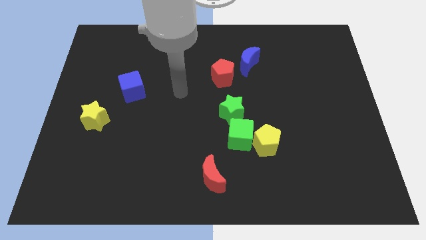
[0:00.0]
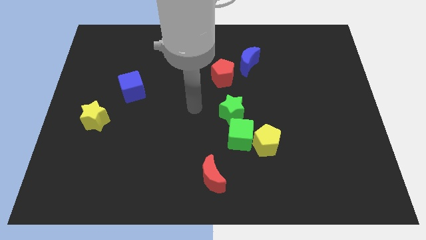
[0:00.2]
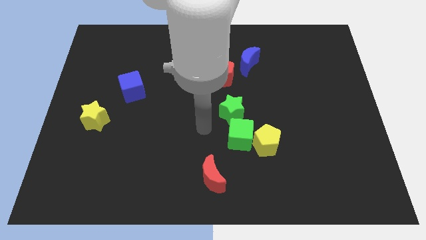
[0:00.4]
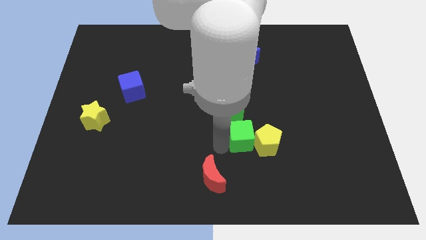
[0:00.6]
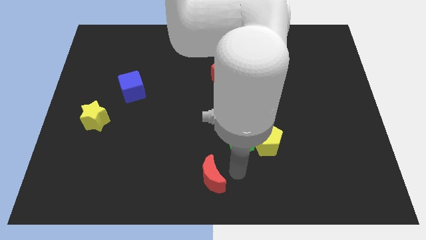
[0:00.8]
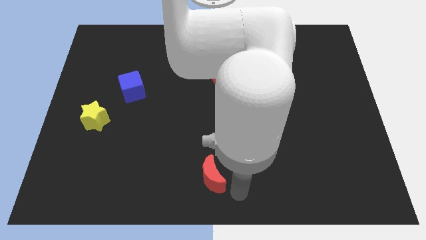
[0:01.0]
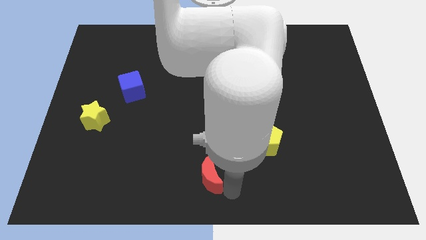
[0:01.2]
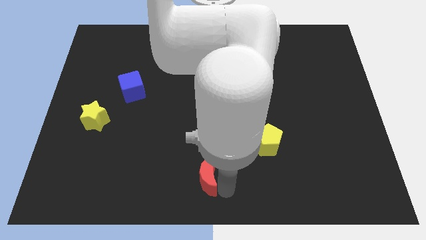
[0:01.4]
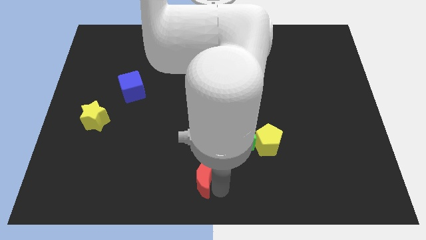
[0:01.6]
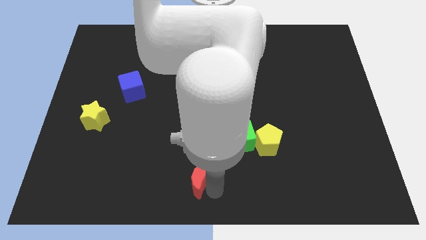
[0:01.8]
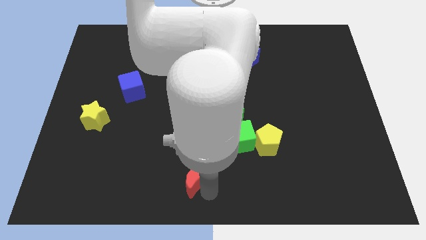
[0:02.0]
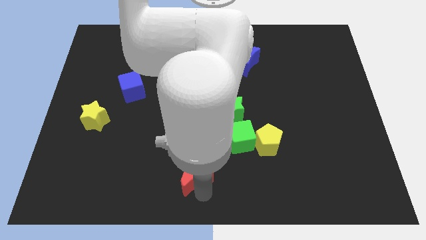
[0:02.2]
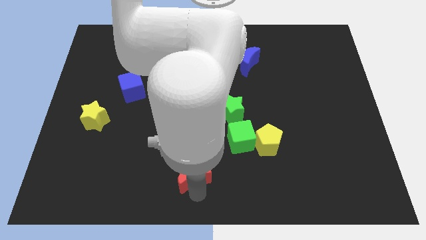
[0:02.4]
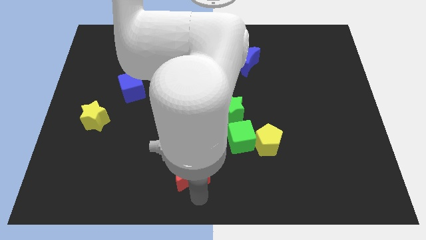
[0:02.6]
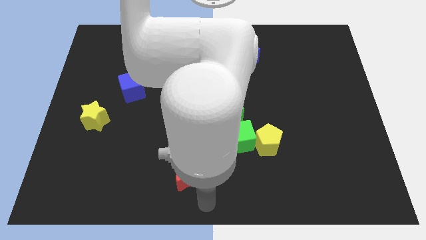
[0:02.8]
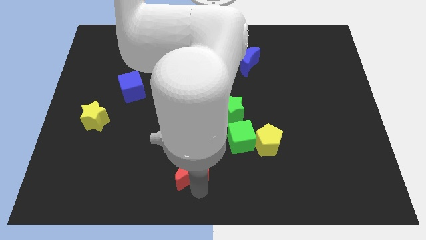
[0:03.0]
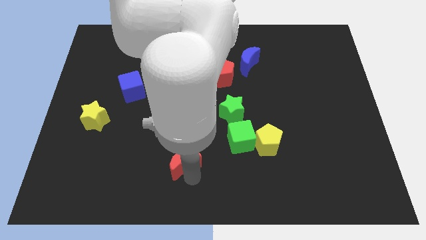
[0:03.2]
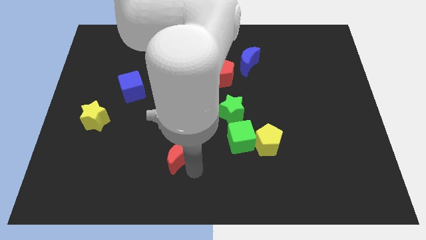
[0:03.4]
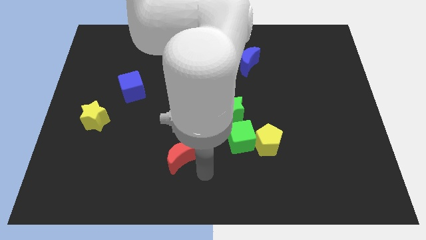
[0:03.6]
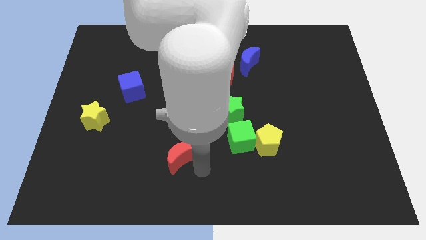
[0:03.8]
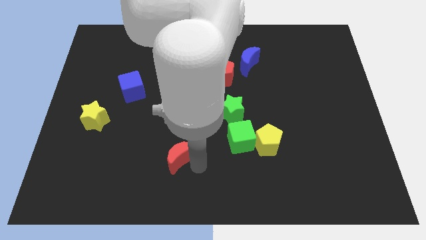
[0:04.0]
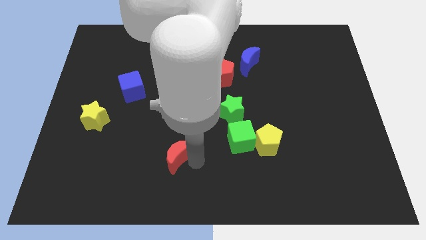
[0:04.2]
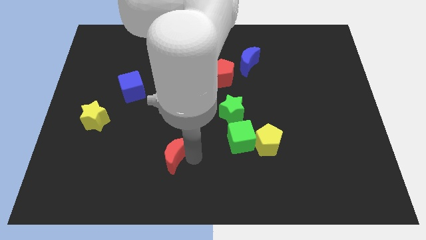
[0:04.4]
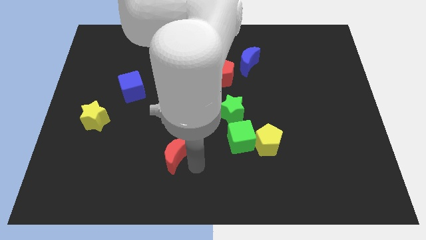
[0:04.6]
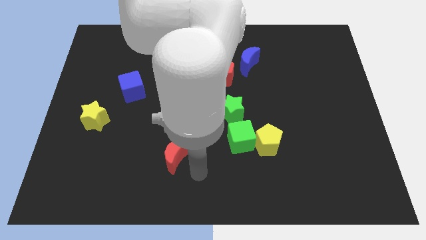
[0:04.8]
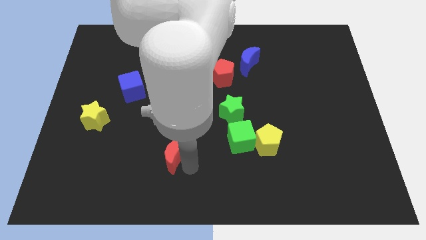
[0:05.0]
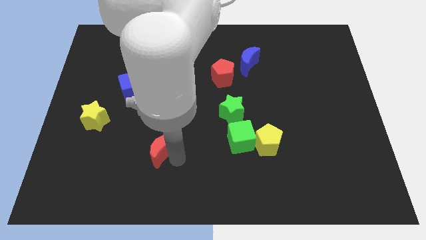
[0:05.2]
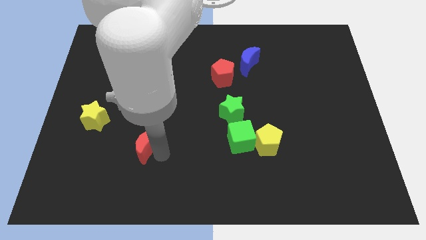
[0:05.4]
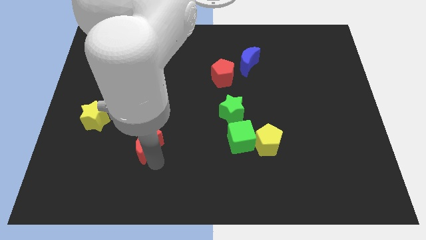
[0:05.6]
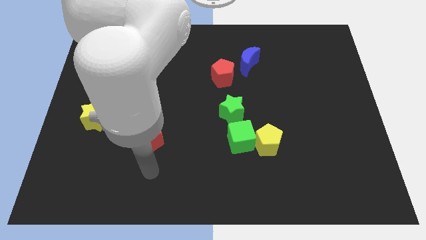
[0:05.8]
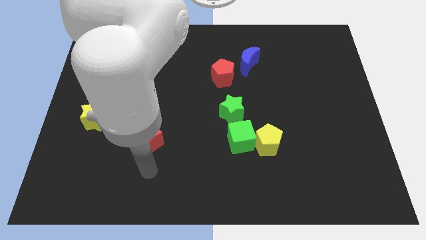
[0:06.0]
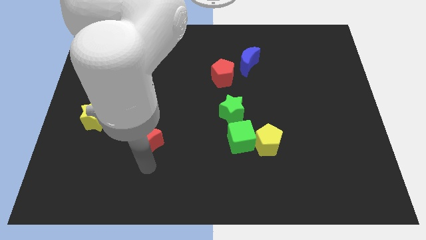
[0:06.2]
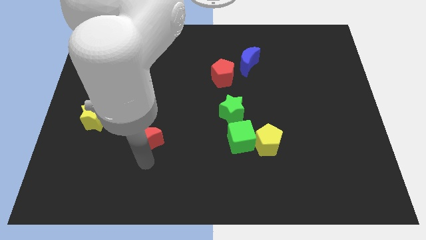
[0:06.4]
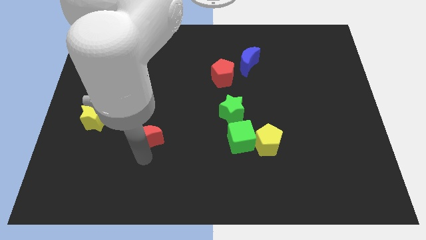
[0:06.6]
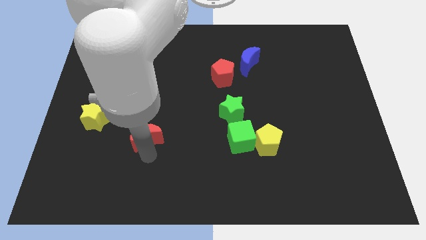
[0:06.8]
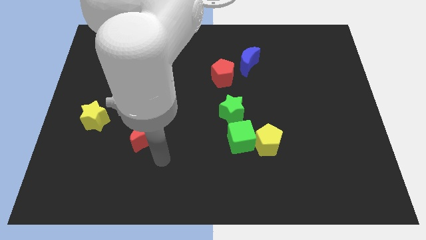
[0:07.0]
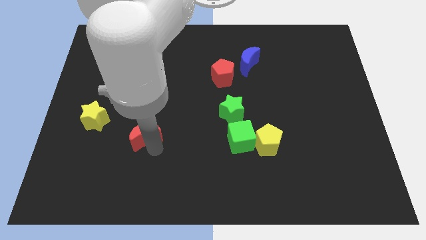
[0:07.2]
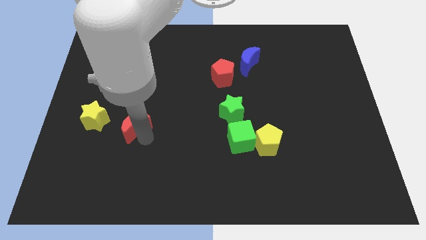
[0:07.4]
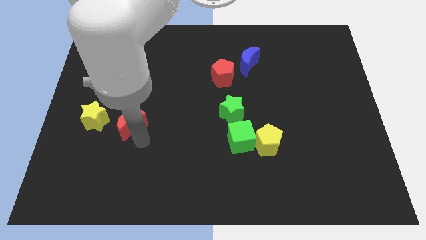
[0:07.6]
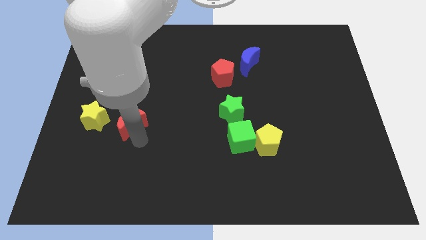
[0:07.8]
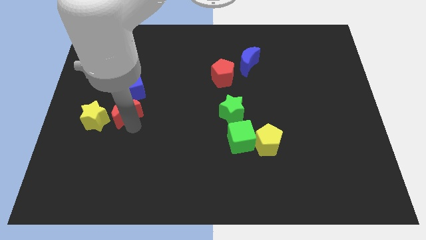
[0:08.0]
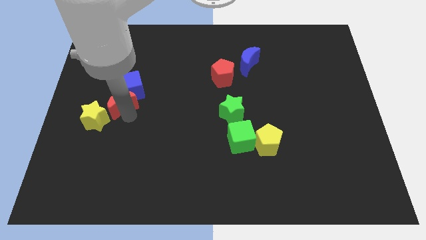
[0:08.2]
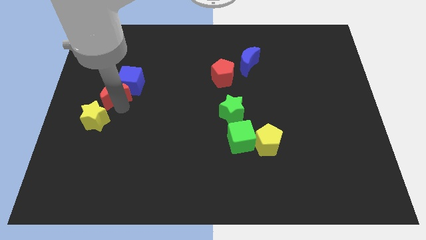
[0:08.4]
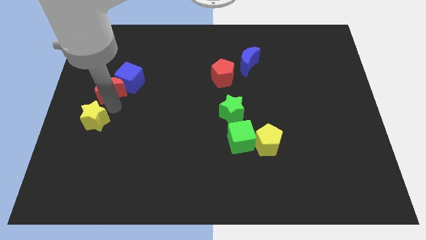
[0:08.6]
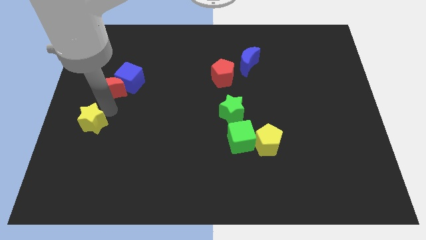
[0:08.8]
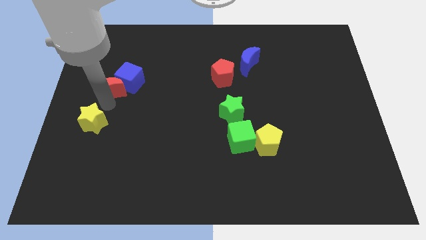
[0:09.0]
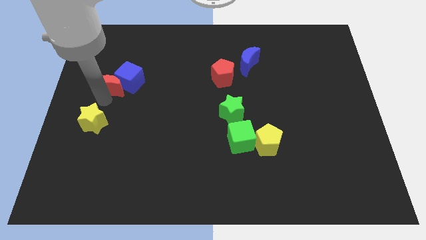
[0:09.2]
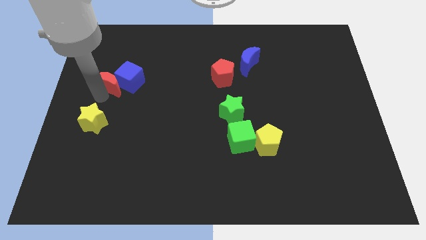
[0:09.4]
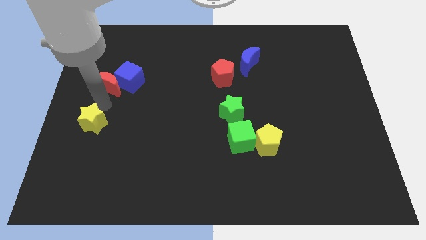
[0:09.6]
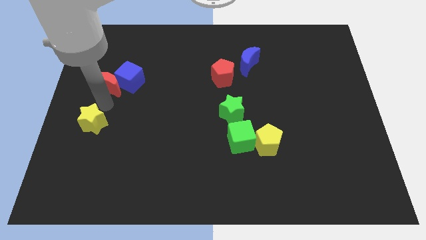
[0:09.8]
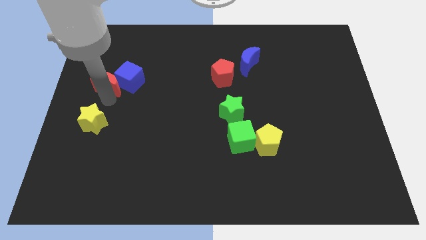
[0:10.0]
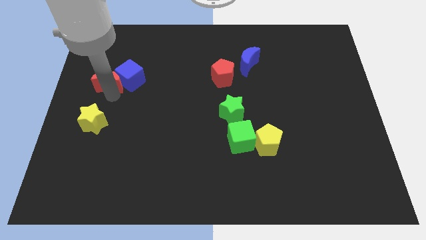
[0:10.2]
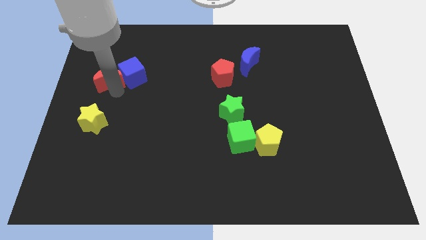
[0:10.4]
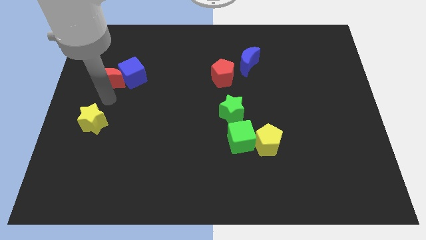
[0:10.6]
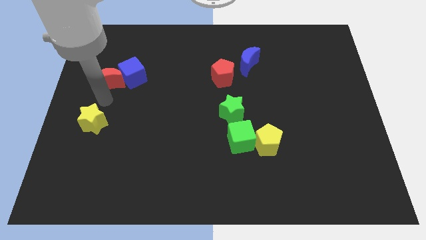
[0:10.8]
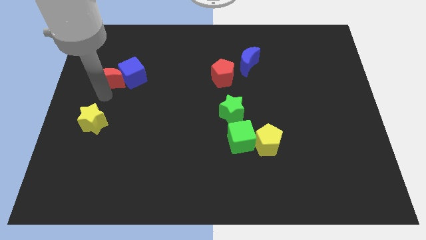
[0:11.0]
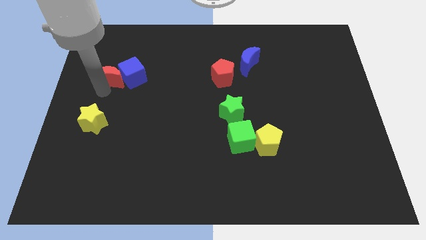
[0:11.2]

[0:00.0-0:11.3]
slide the red moon to the top left of the blue cube
